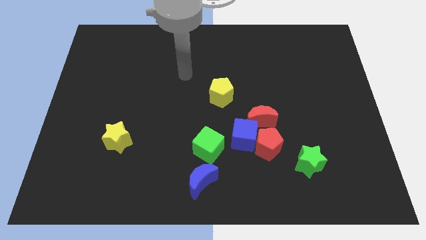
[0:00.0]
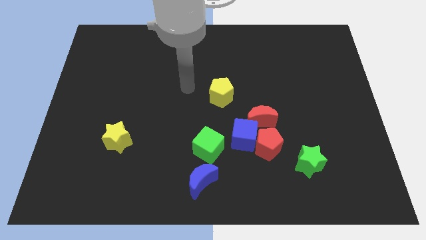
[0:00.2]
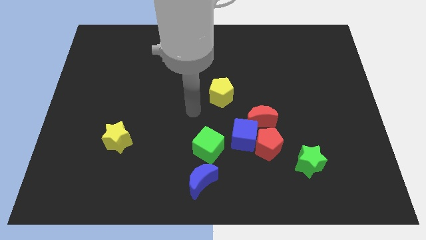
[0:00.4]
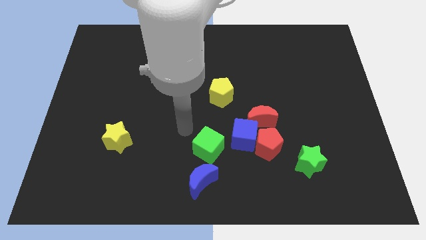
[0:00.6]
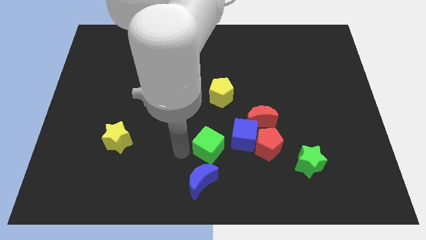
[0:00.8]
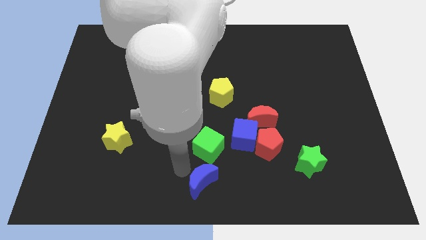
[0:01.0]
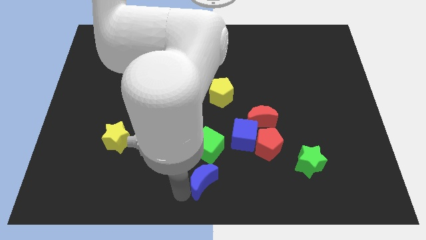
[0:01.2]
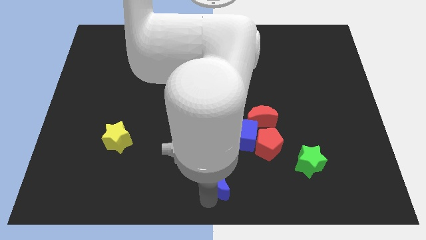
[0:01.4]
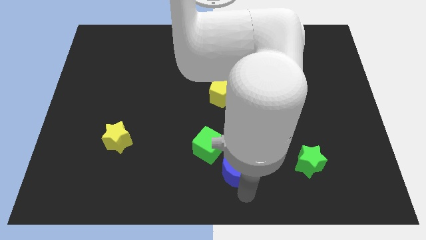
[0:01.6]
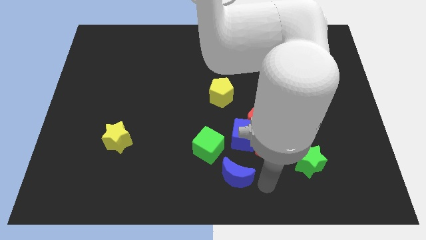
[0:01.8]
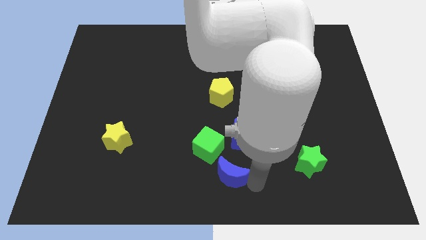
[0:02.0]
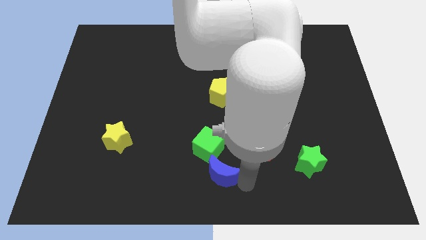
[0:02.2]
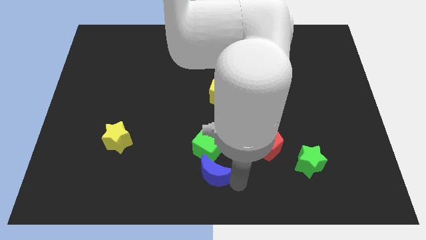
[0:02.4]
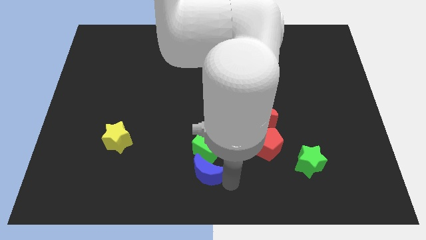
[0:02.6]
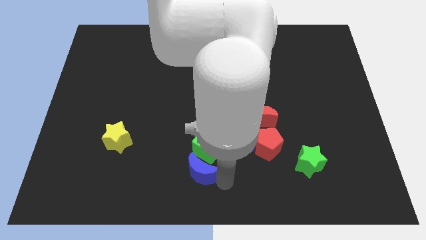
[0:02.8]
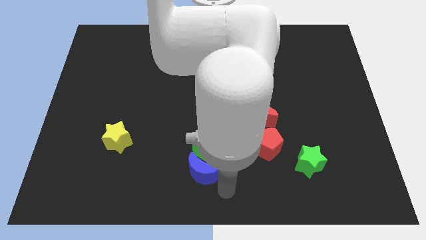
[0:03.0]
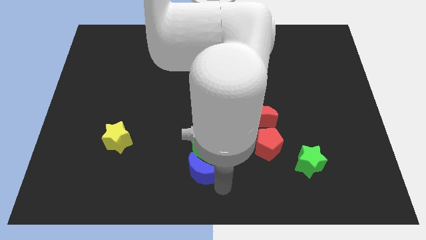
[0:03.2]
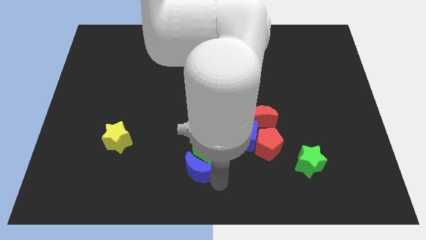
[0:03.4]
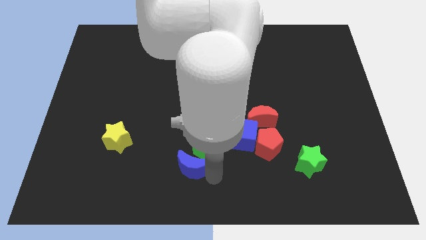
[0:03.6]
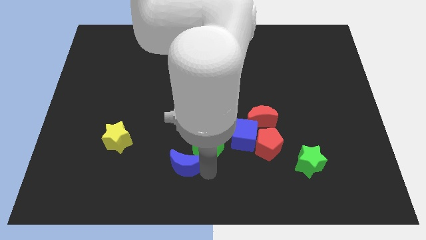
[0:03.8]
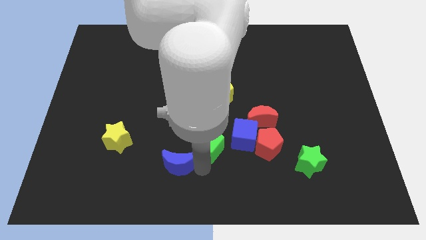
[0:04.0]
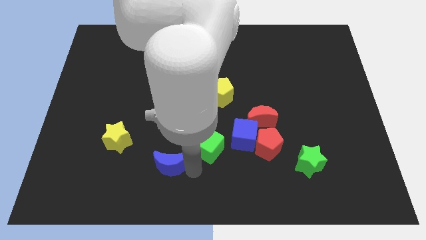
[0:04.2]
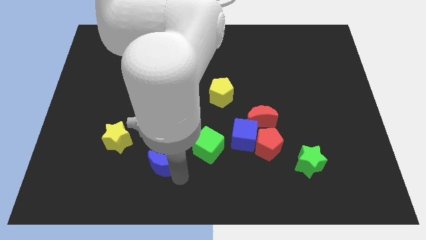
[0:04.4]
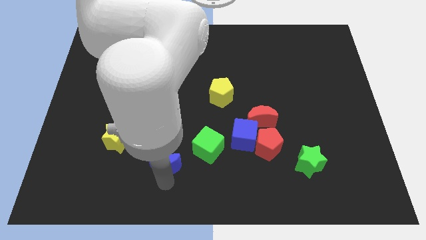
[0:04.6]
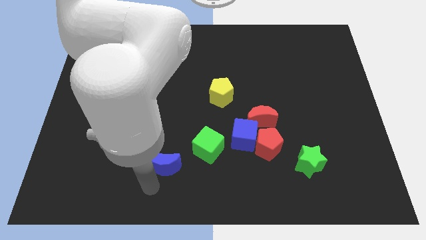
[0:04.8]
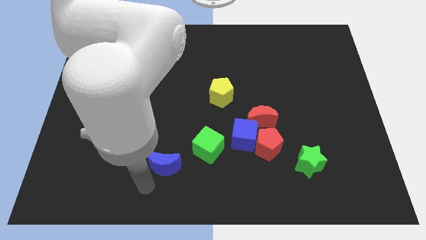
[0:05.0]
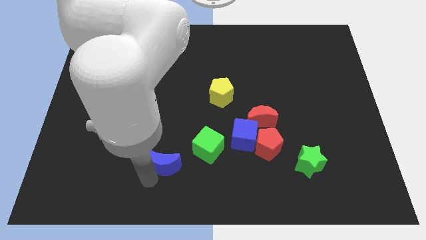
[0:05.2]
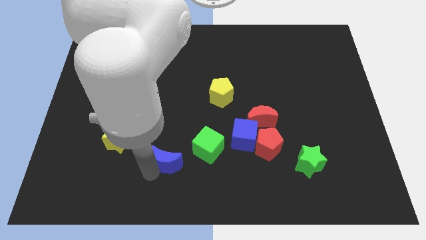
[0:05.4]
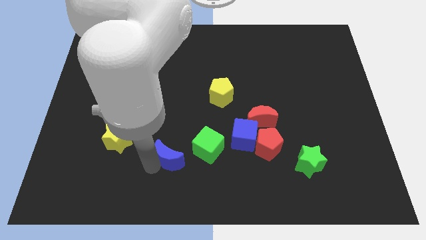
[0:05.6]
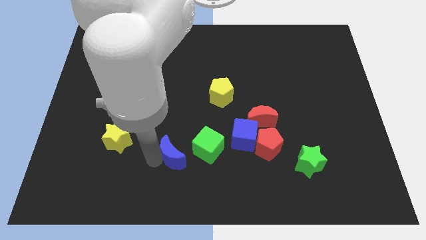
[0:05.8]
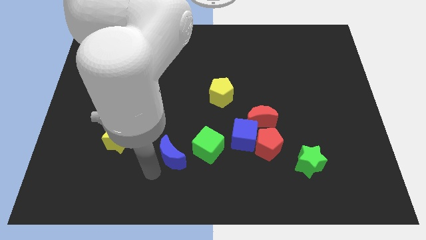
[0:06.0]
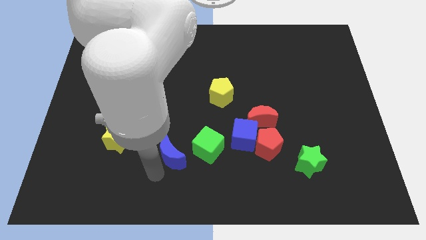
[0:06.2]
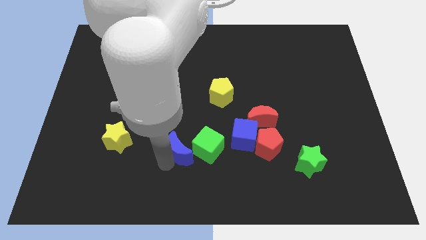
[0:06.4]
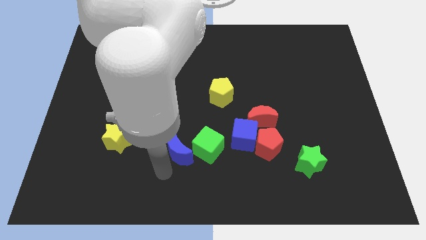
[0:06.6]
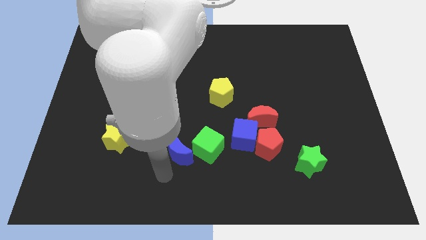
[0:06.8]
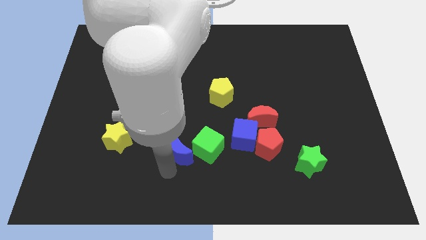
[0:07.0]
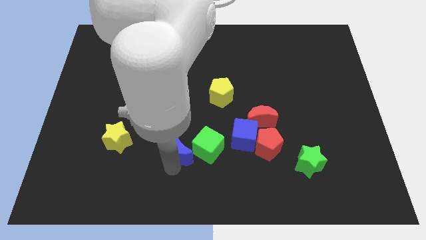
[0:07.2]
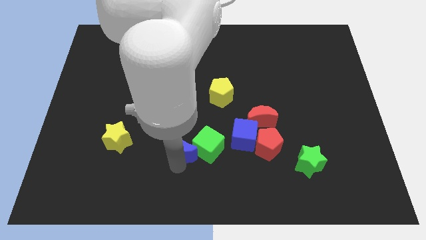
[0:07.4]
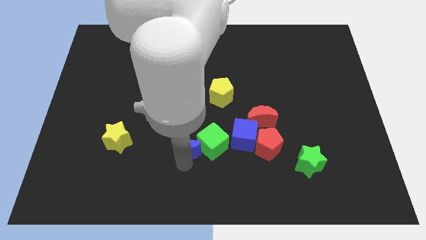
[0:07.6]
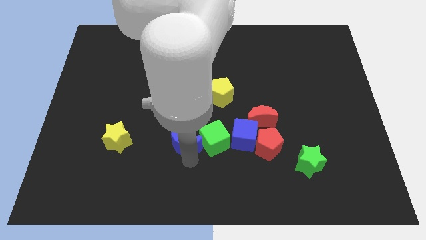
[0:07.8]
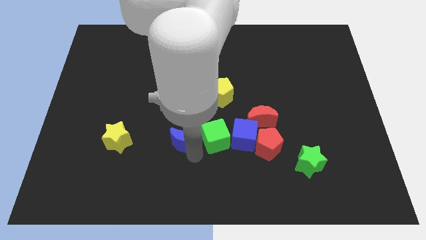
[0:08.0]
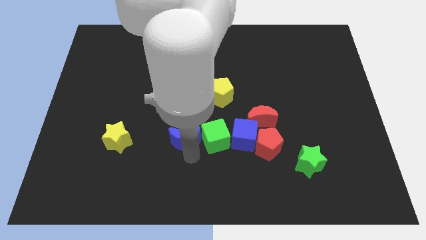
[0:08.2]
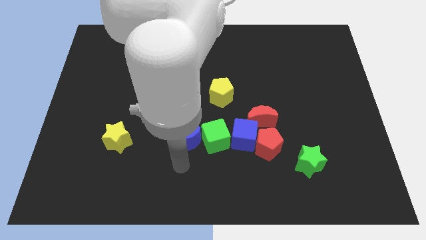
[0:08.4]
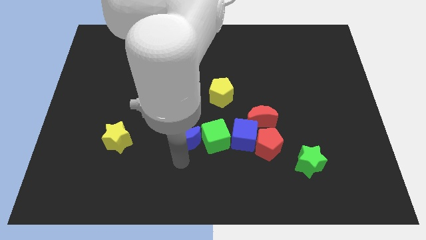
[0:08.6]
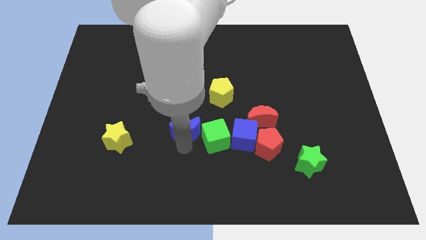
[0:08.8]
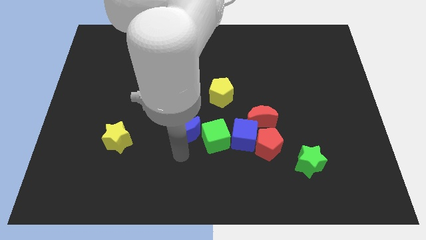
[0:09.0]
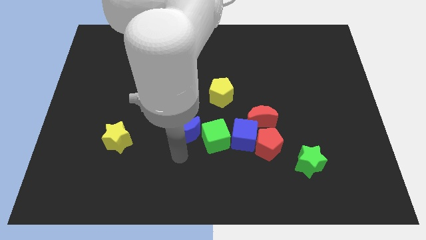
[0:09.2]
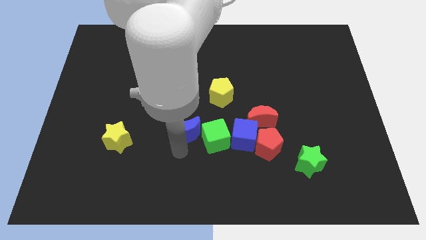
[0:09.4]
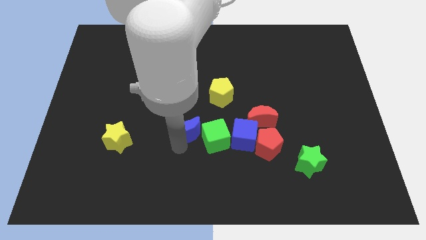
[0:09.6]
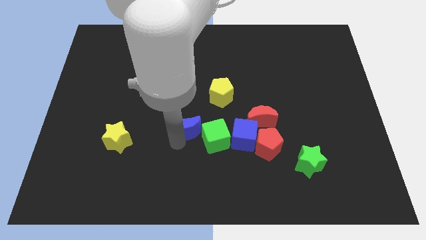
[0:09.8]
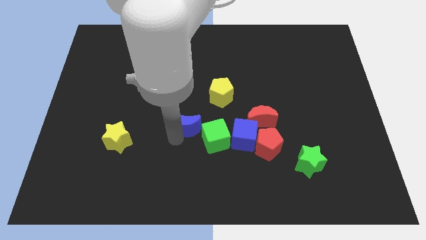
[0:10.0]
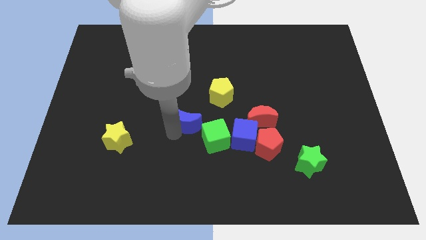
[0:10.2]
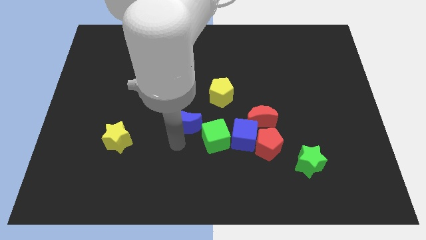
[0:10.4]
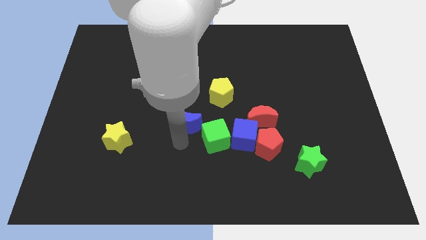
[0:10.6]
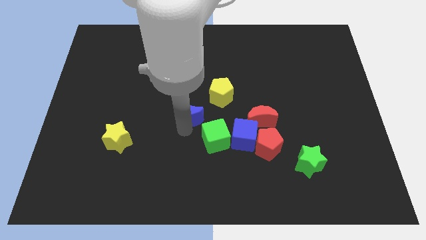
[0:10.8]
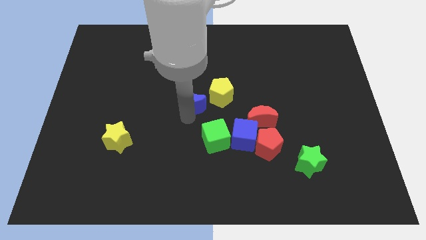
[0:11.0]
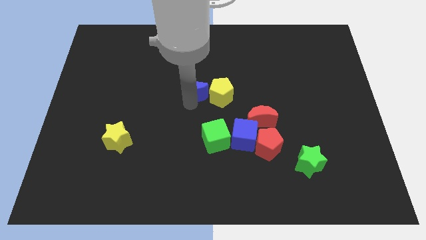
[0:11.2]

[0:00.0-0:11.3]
slide the blue moon diagonally up and to the left of the yellow pentagon

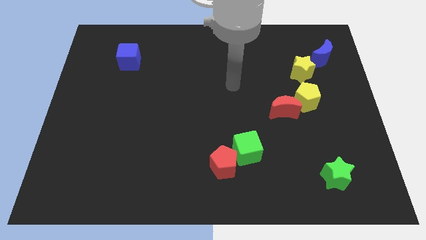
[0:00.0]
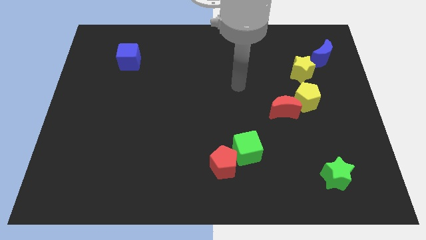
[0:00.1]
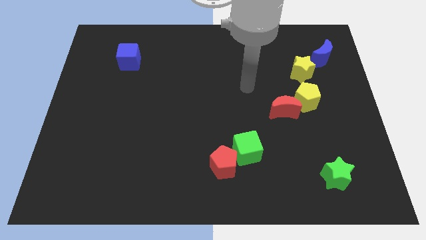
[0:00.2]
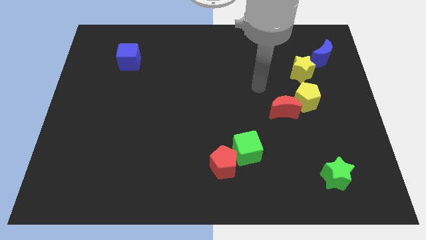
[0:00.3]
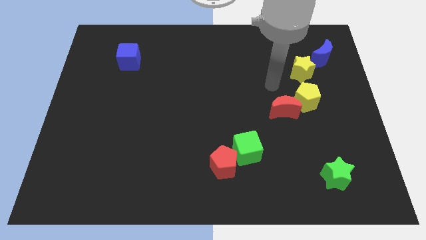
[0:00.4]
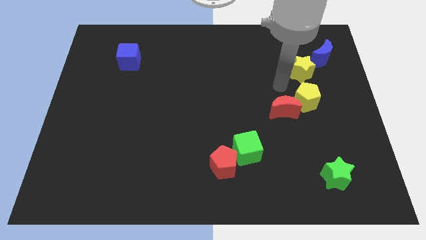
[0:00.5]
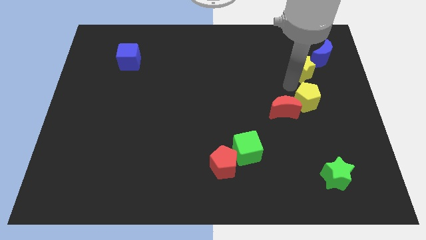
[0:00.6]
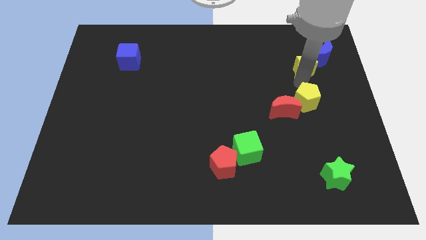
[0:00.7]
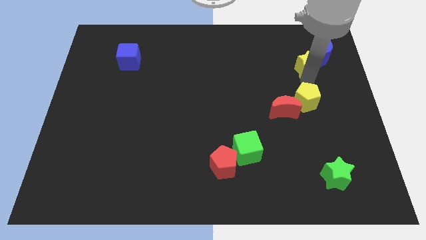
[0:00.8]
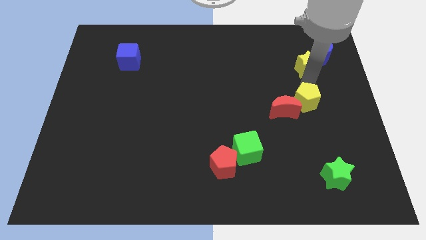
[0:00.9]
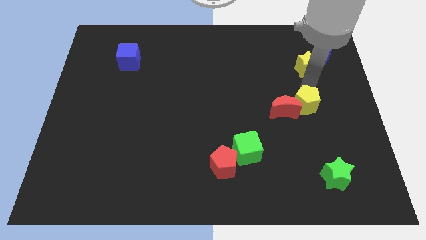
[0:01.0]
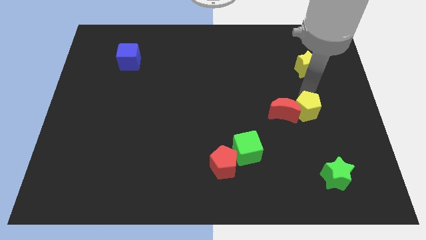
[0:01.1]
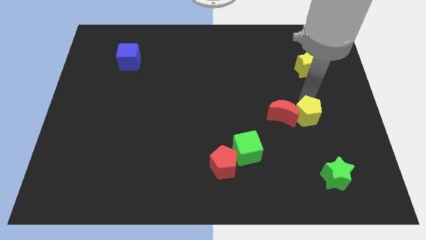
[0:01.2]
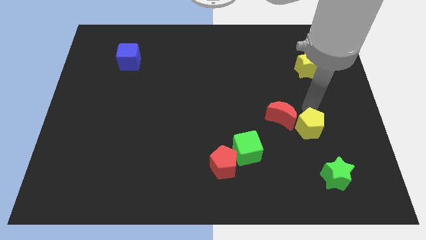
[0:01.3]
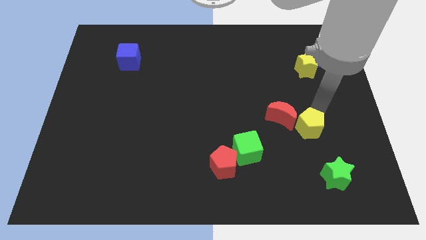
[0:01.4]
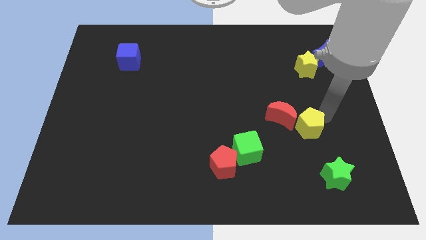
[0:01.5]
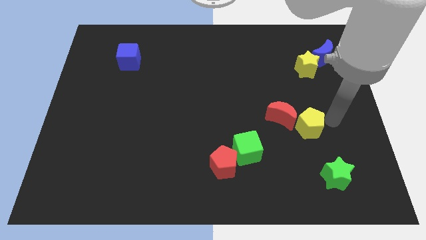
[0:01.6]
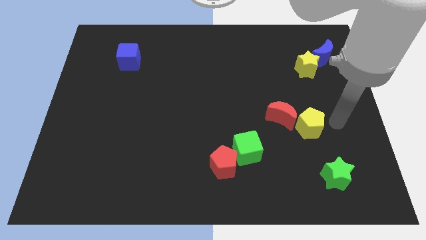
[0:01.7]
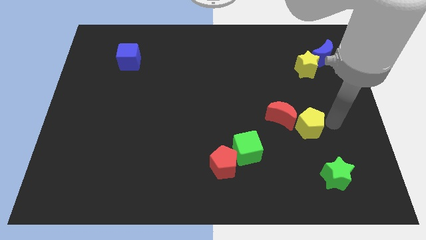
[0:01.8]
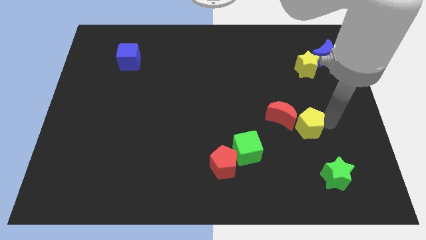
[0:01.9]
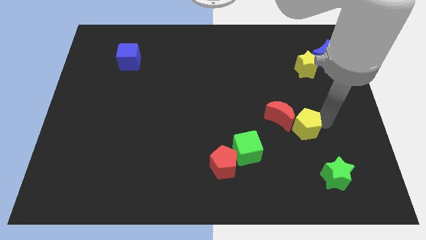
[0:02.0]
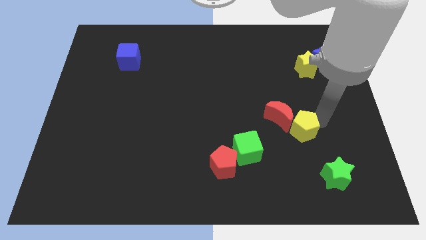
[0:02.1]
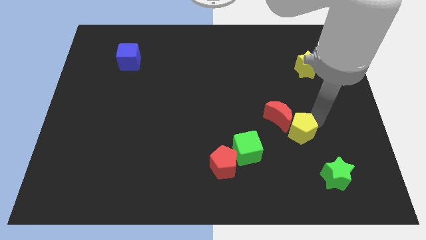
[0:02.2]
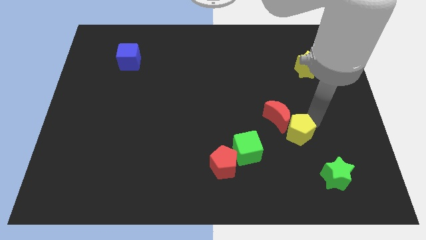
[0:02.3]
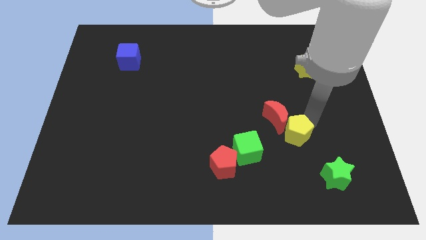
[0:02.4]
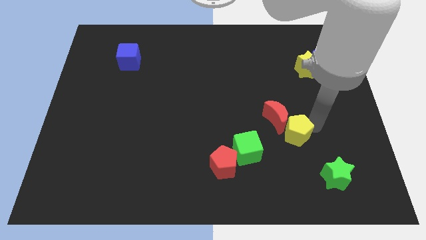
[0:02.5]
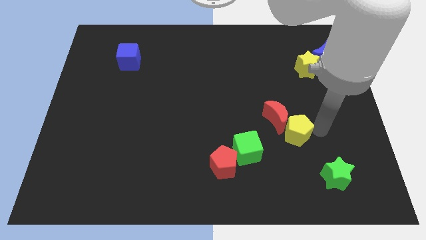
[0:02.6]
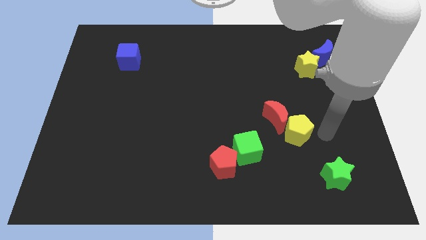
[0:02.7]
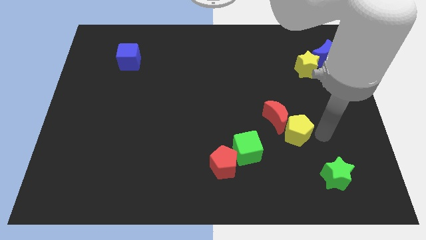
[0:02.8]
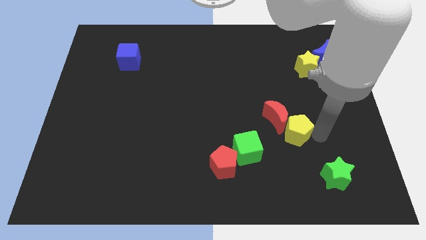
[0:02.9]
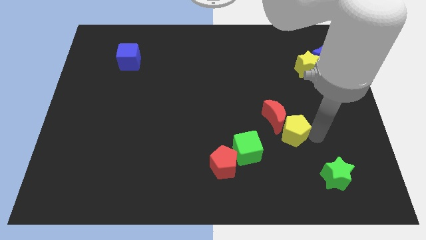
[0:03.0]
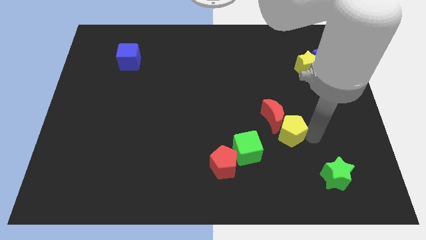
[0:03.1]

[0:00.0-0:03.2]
put the yellow pentagon to the top right of the green cube

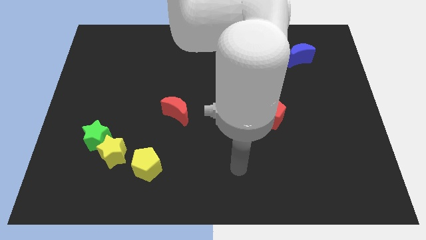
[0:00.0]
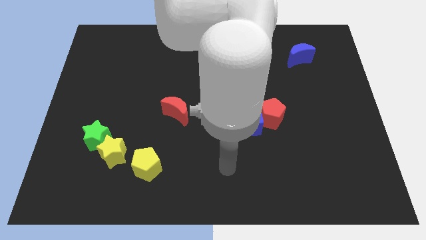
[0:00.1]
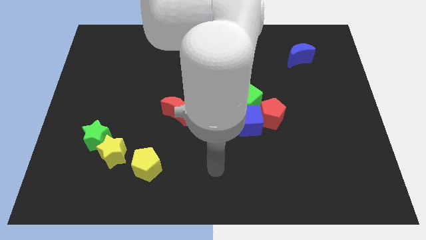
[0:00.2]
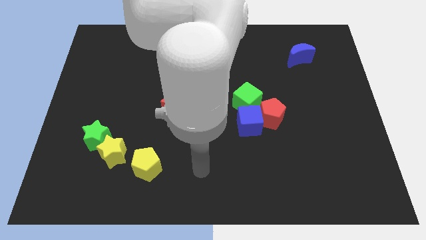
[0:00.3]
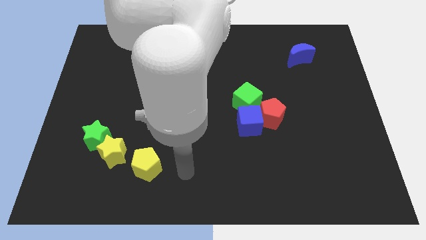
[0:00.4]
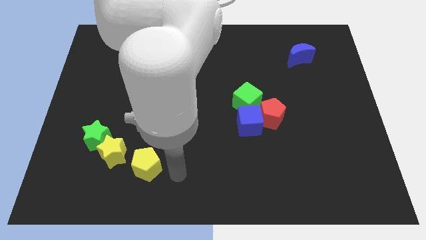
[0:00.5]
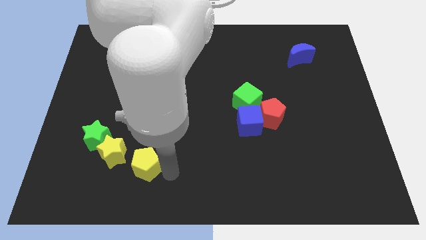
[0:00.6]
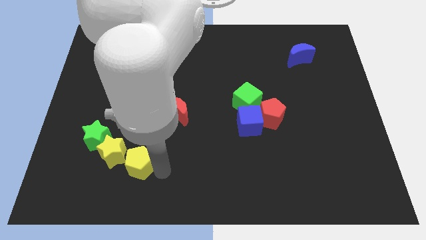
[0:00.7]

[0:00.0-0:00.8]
move the yellow pentagon diagonally down and to the right of the green star
